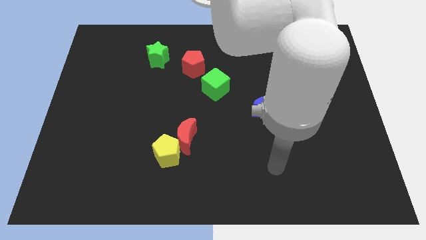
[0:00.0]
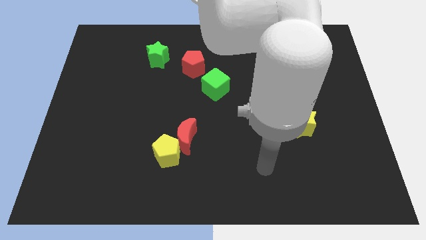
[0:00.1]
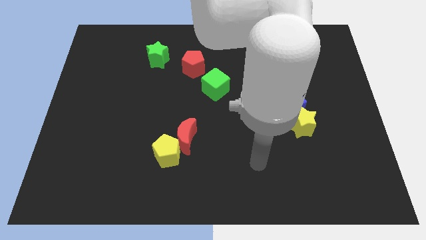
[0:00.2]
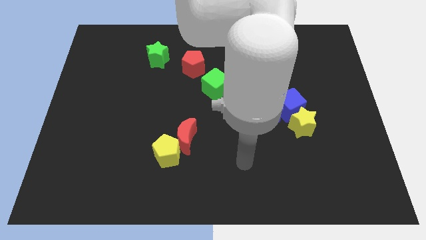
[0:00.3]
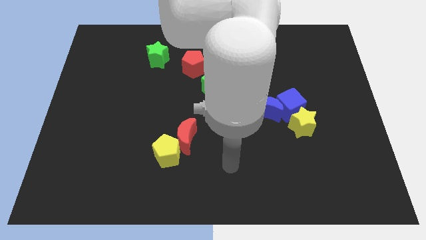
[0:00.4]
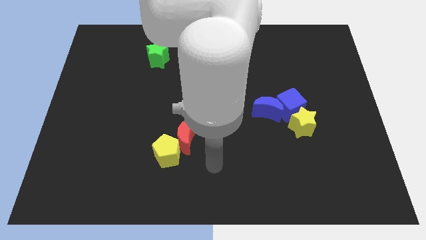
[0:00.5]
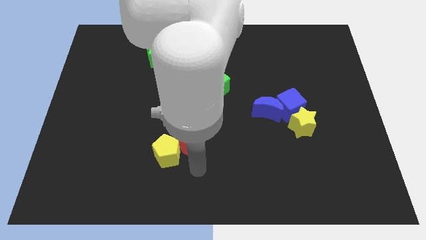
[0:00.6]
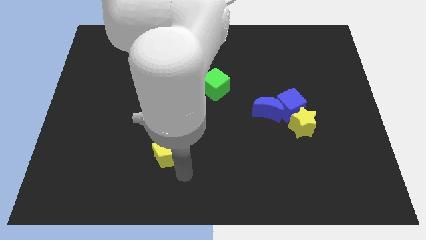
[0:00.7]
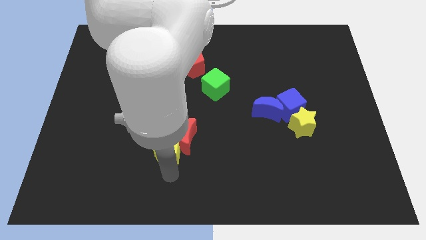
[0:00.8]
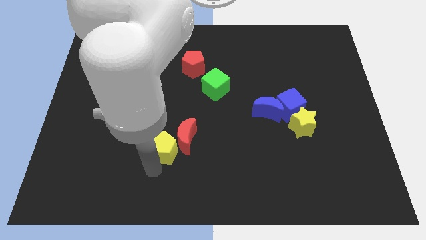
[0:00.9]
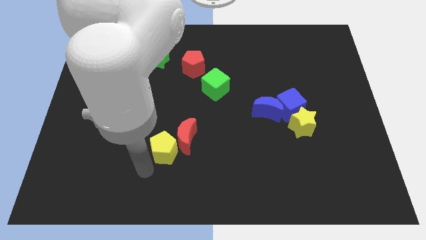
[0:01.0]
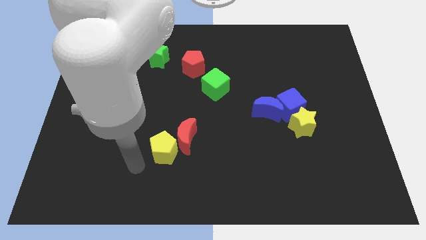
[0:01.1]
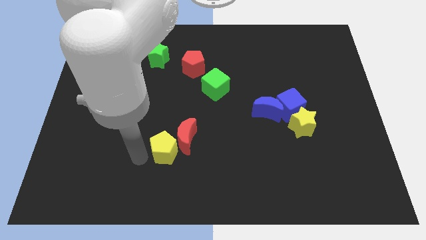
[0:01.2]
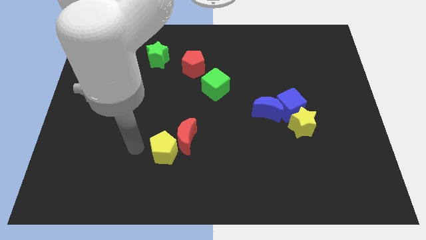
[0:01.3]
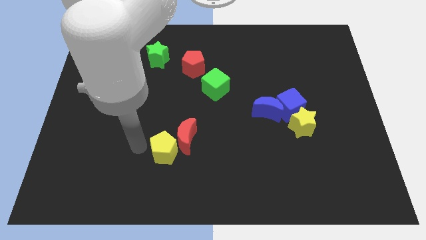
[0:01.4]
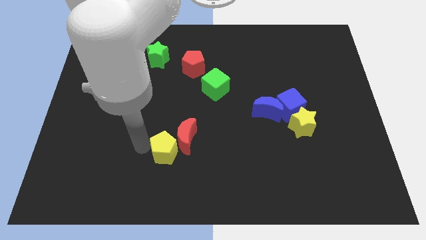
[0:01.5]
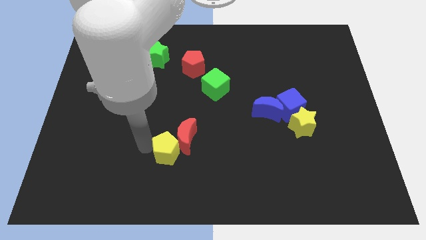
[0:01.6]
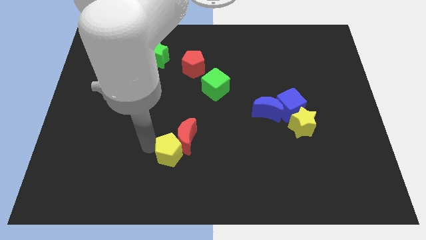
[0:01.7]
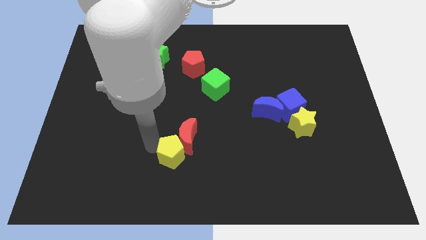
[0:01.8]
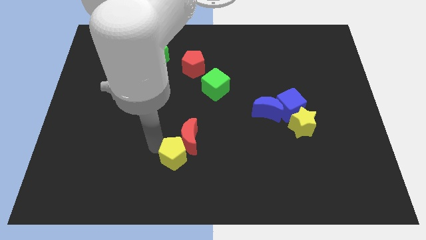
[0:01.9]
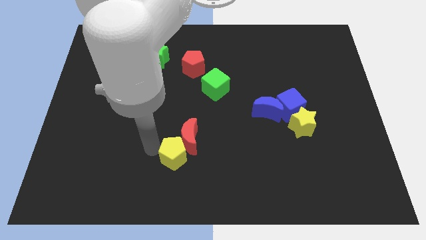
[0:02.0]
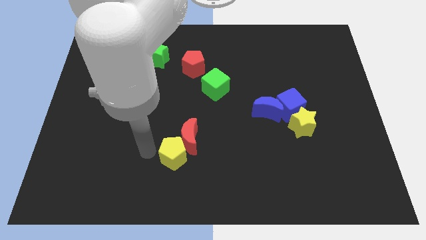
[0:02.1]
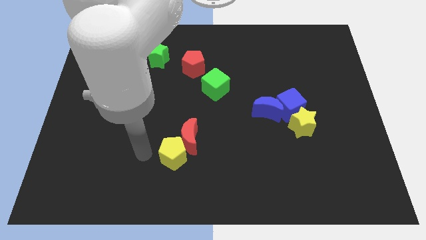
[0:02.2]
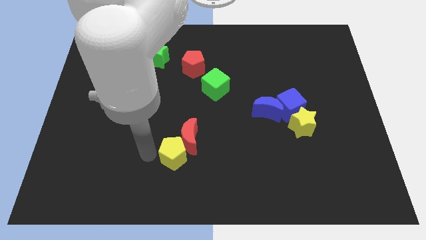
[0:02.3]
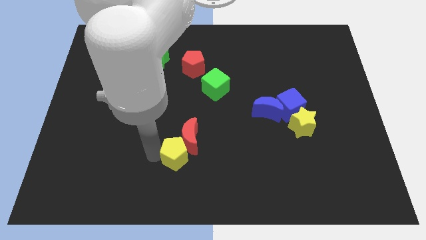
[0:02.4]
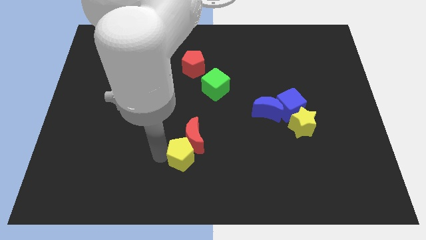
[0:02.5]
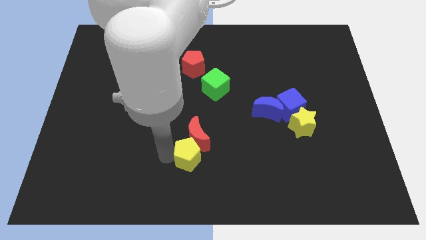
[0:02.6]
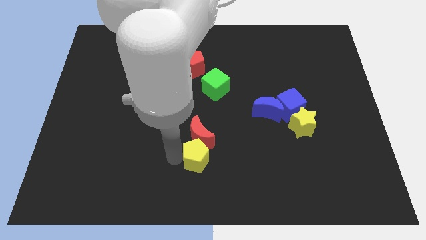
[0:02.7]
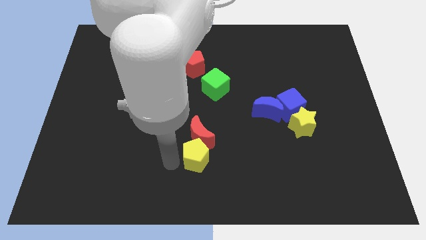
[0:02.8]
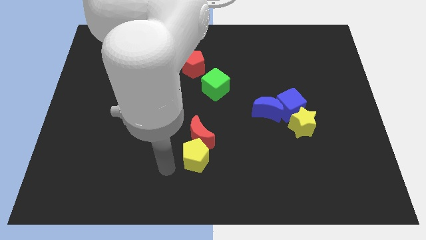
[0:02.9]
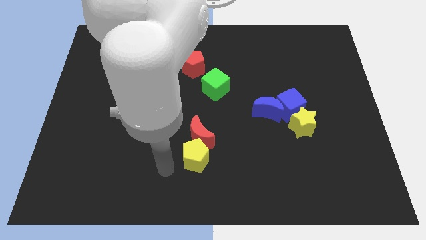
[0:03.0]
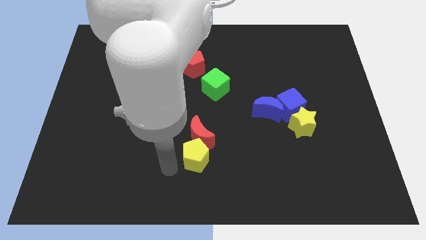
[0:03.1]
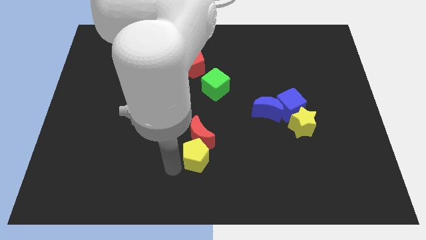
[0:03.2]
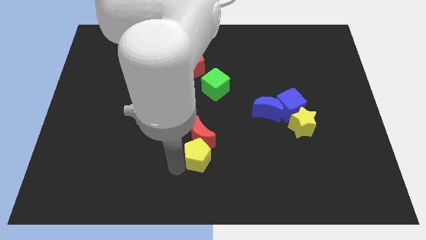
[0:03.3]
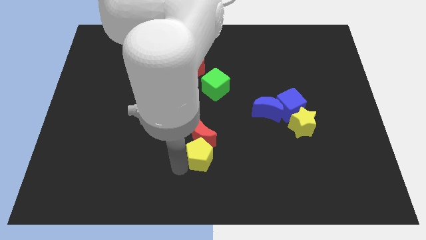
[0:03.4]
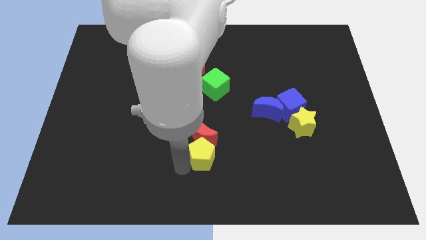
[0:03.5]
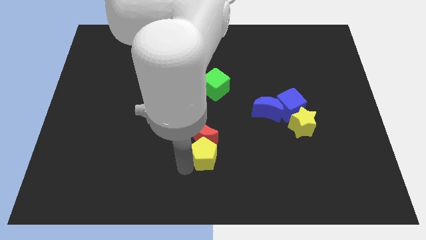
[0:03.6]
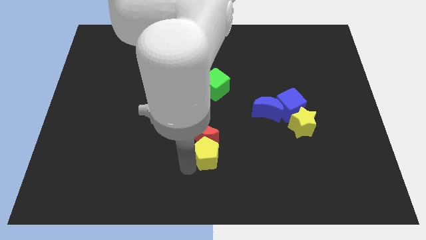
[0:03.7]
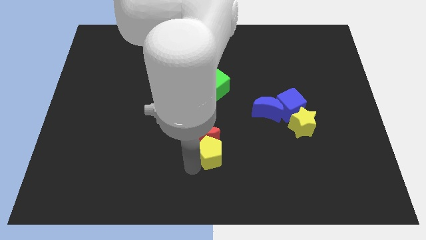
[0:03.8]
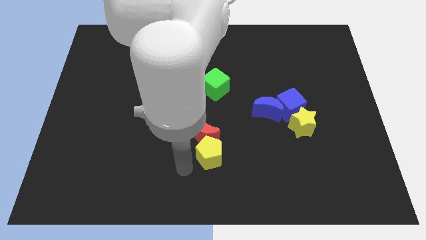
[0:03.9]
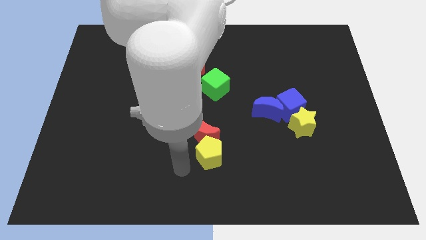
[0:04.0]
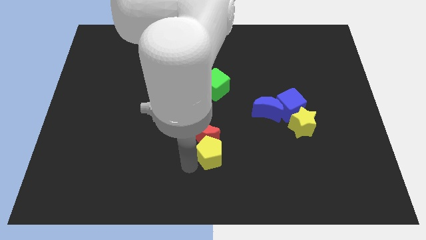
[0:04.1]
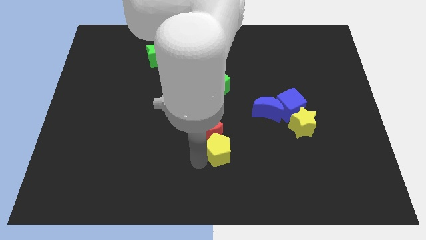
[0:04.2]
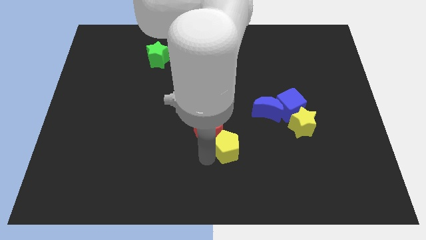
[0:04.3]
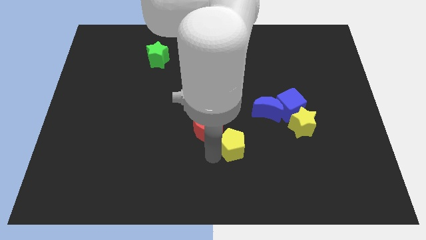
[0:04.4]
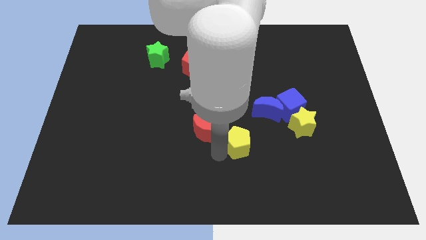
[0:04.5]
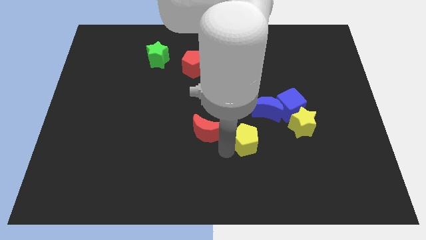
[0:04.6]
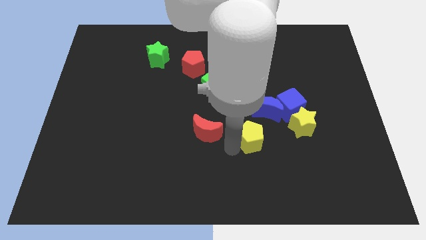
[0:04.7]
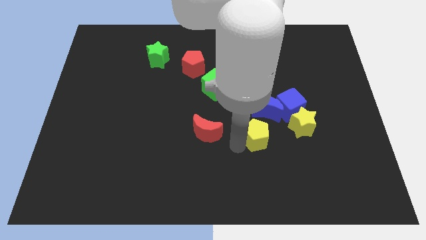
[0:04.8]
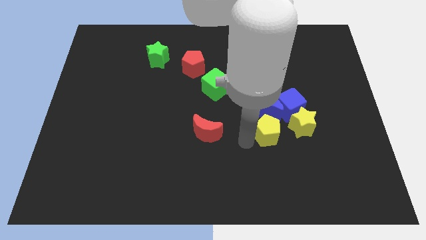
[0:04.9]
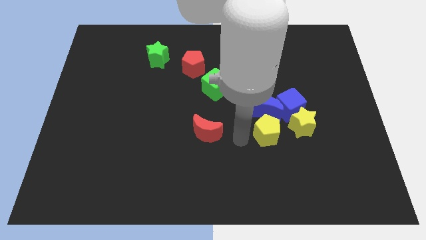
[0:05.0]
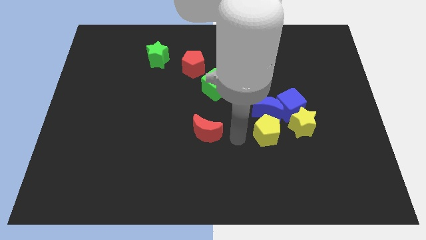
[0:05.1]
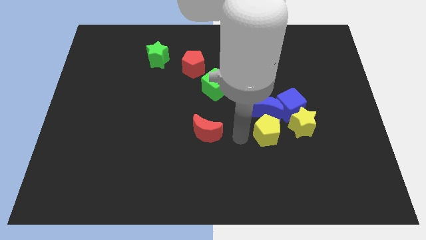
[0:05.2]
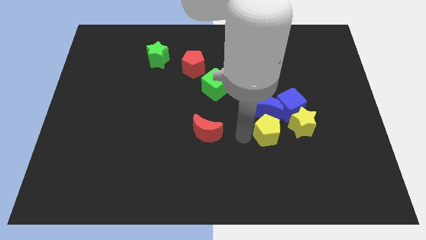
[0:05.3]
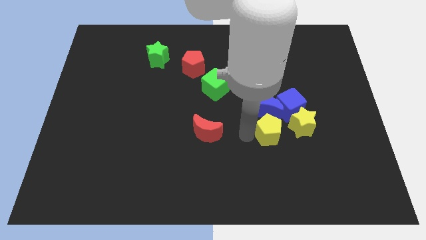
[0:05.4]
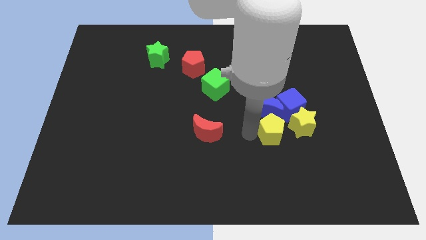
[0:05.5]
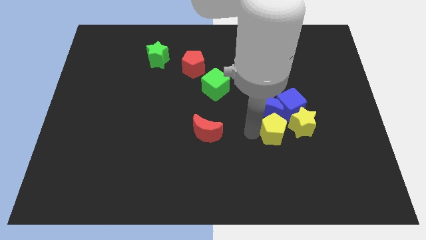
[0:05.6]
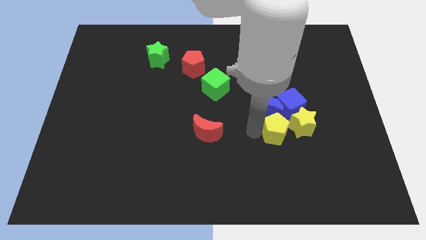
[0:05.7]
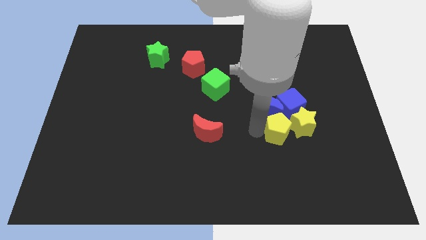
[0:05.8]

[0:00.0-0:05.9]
slide the yellow pentagon towards the yellow star

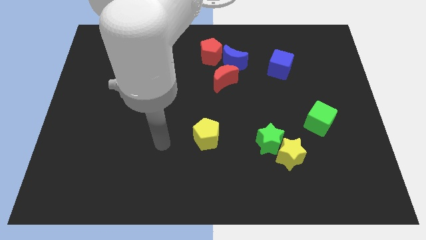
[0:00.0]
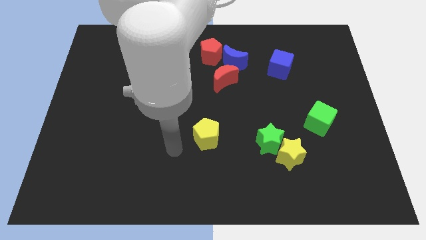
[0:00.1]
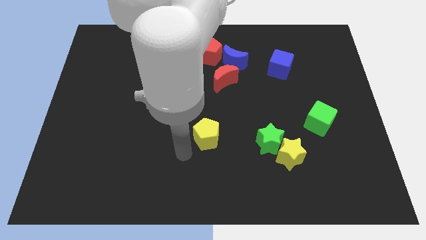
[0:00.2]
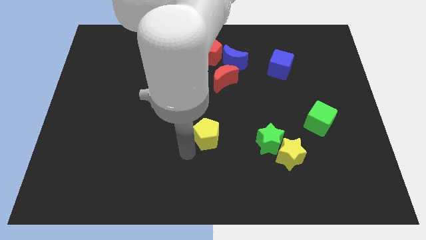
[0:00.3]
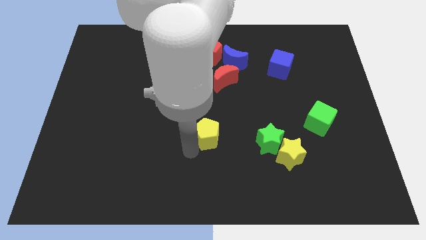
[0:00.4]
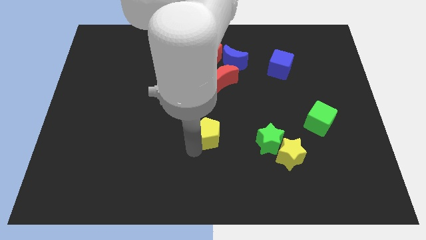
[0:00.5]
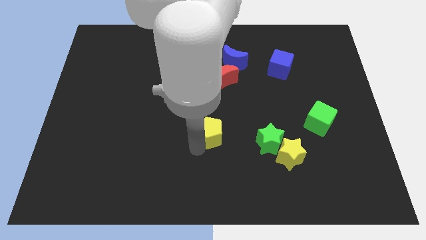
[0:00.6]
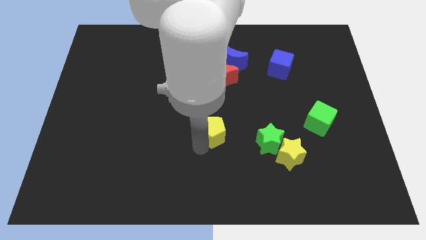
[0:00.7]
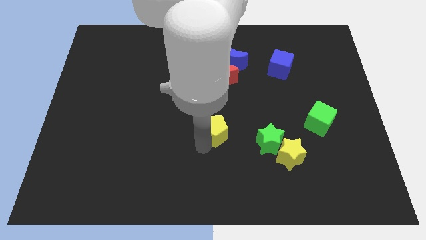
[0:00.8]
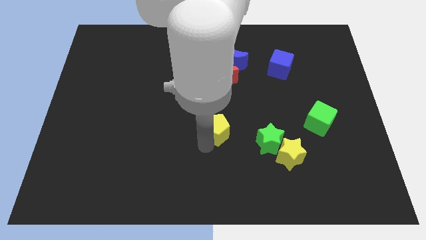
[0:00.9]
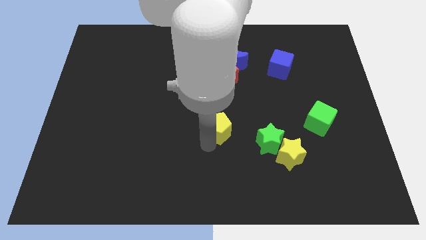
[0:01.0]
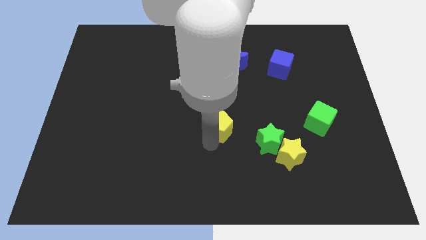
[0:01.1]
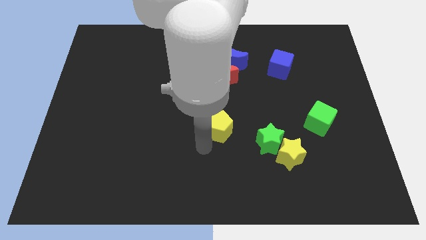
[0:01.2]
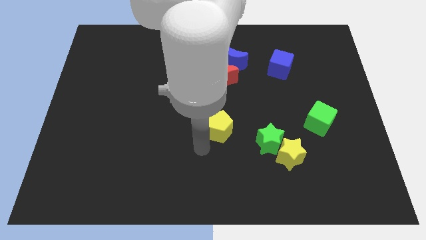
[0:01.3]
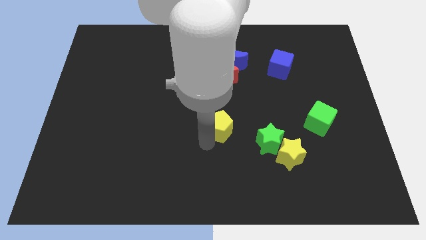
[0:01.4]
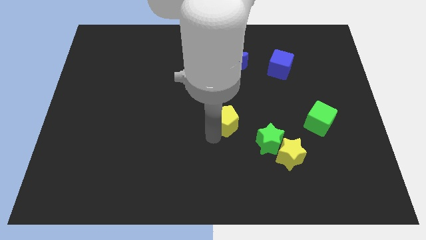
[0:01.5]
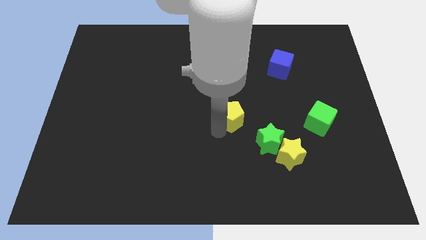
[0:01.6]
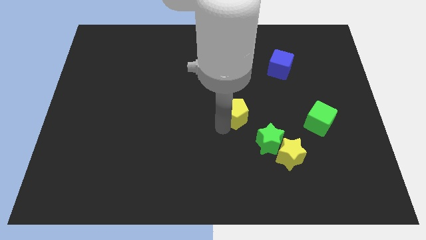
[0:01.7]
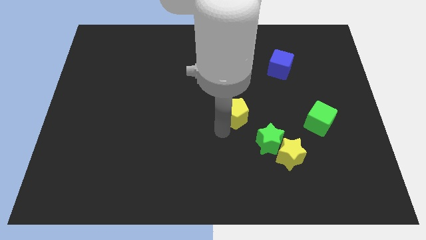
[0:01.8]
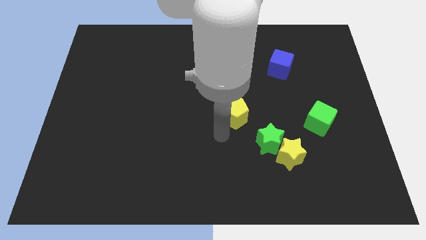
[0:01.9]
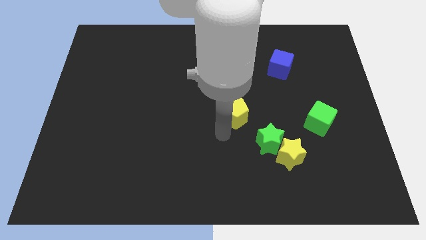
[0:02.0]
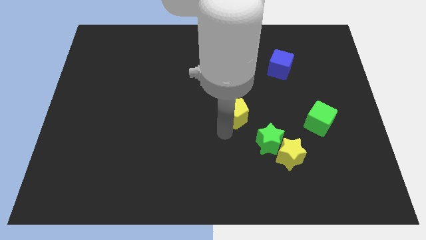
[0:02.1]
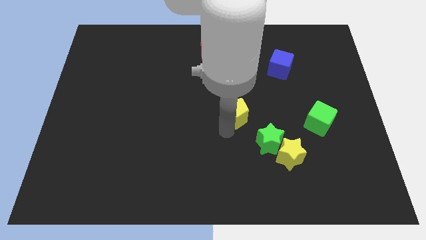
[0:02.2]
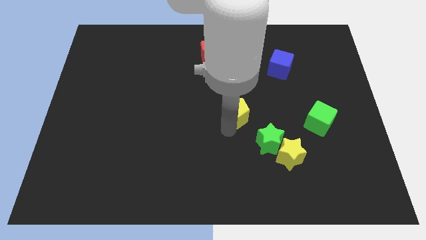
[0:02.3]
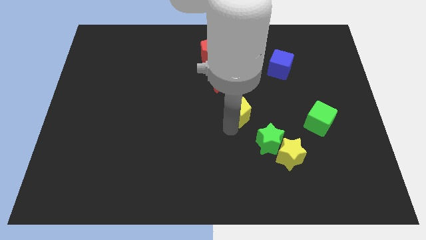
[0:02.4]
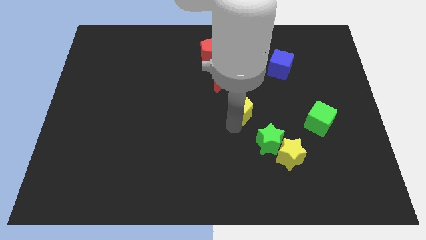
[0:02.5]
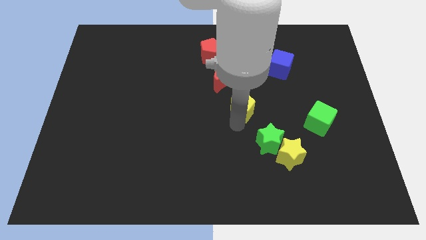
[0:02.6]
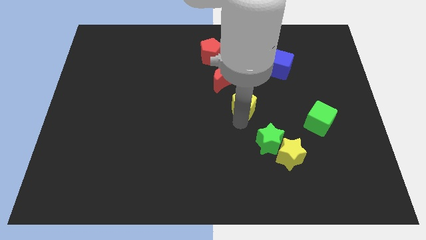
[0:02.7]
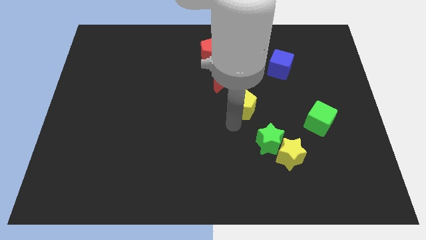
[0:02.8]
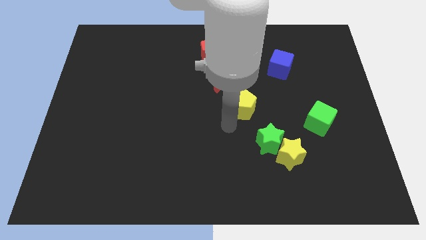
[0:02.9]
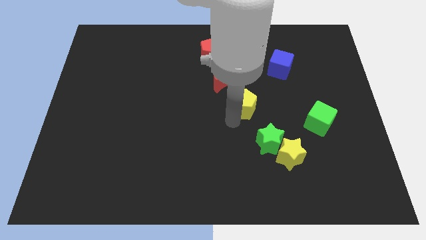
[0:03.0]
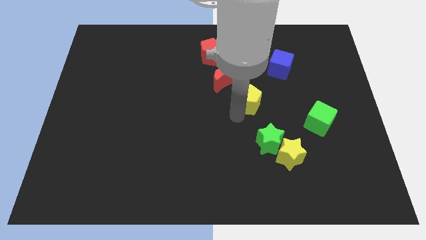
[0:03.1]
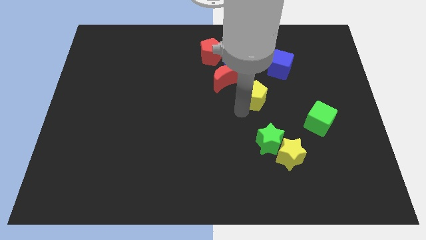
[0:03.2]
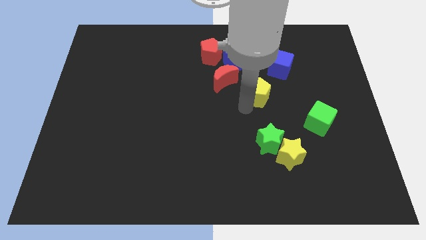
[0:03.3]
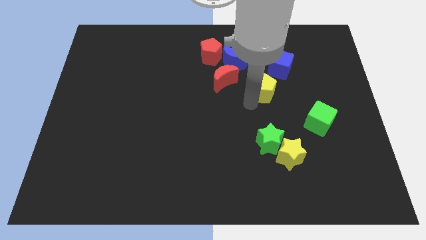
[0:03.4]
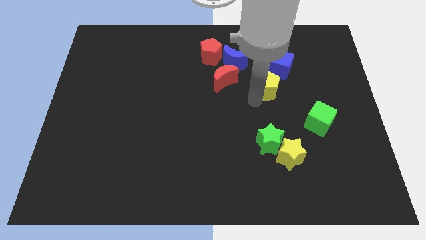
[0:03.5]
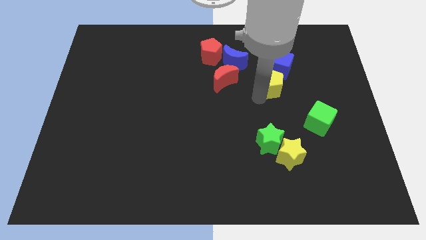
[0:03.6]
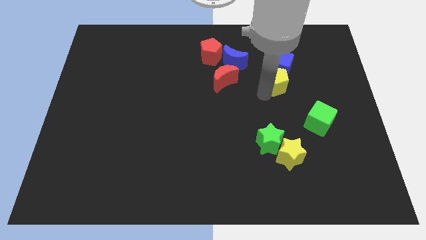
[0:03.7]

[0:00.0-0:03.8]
push the yellow pentagon next to the blue cube
